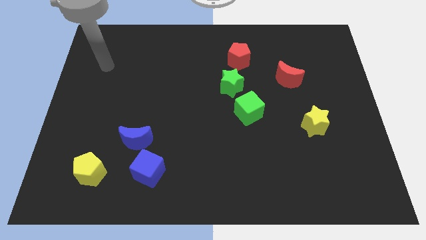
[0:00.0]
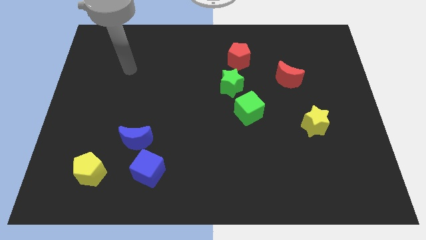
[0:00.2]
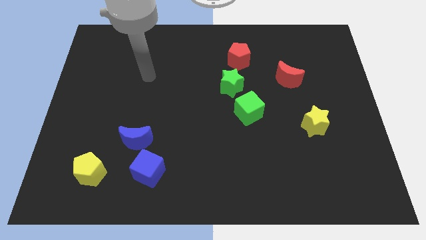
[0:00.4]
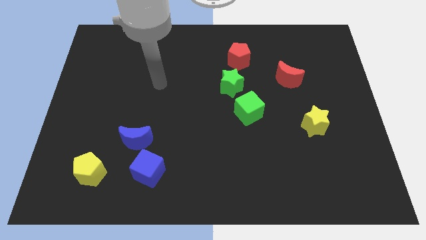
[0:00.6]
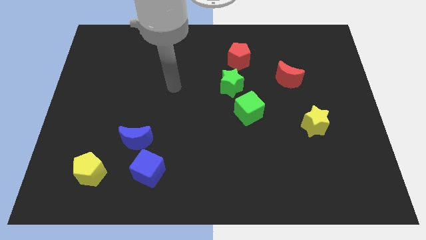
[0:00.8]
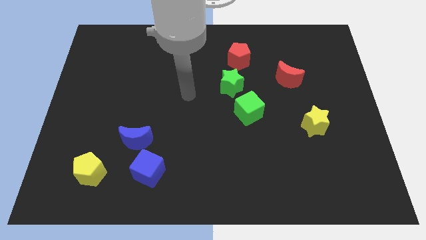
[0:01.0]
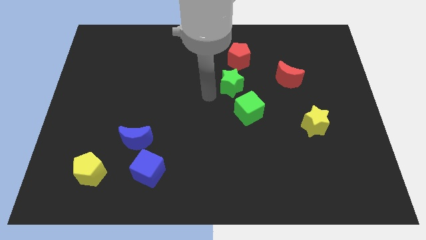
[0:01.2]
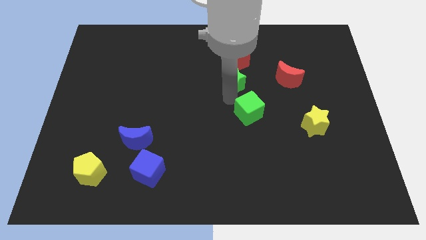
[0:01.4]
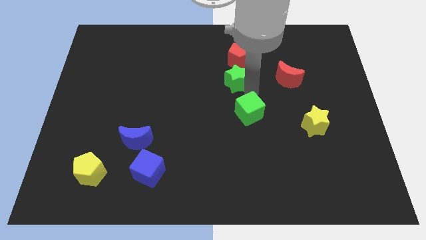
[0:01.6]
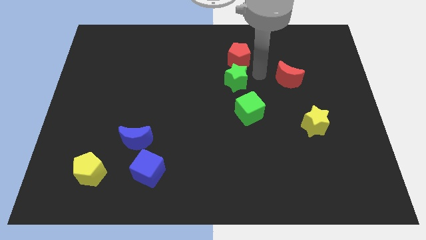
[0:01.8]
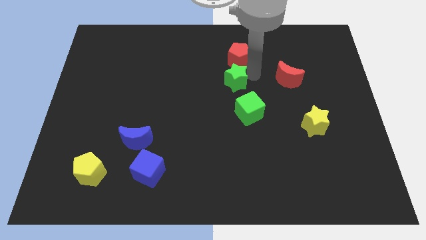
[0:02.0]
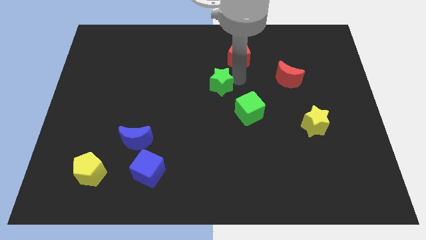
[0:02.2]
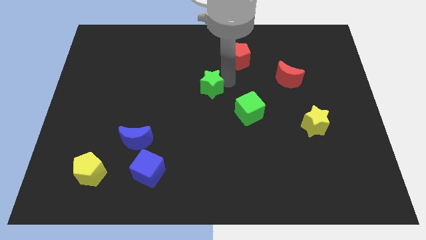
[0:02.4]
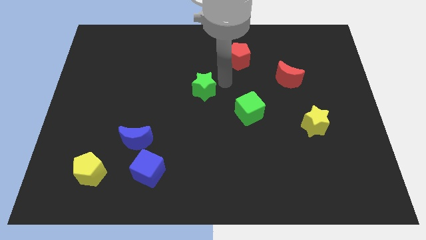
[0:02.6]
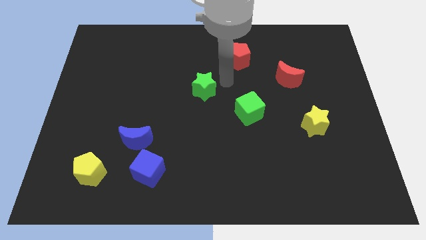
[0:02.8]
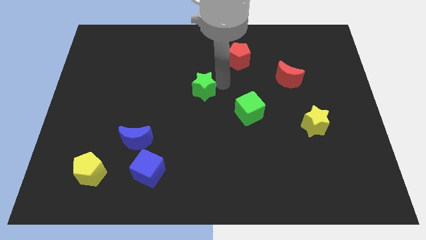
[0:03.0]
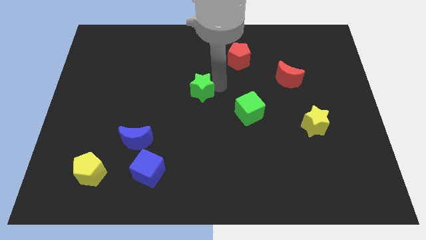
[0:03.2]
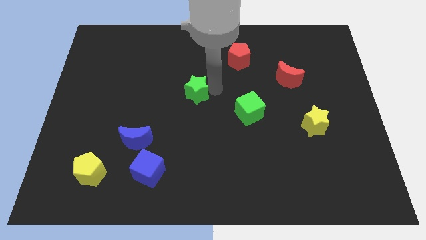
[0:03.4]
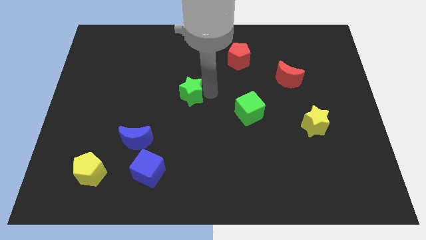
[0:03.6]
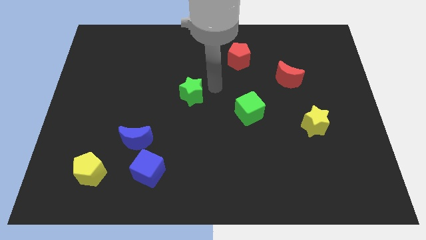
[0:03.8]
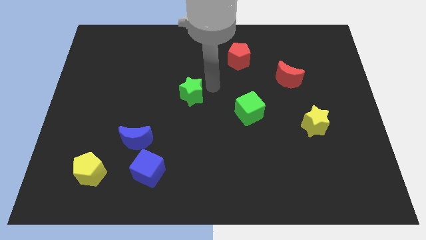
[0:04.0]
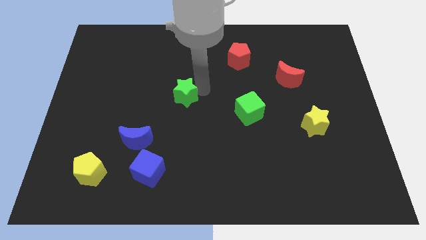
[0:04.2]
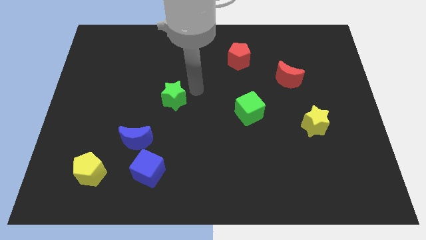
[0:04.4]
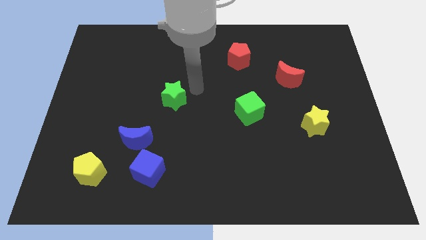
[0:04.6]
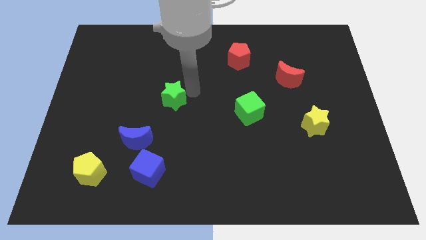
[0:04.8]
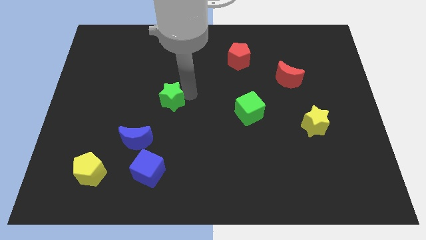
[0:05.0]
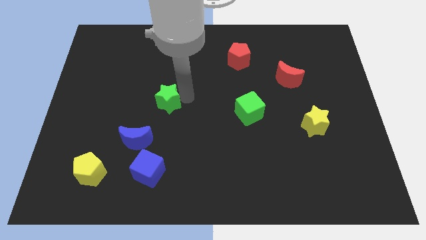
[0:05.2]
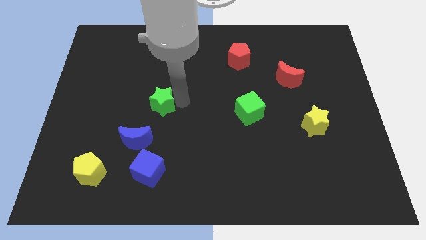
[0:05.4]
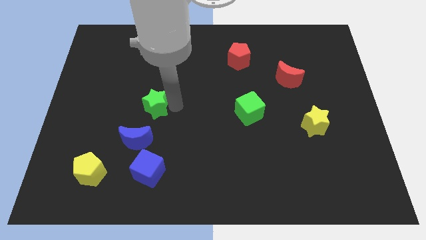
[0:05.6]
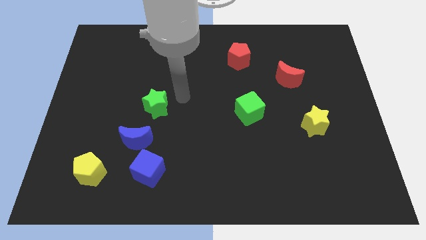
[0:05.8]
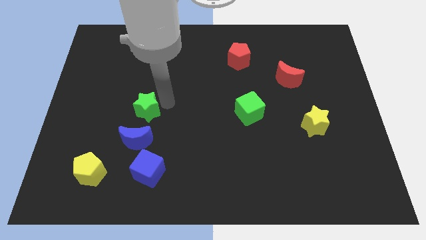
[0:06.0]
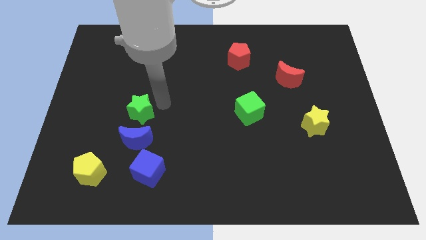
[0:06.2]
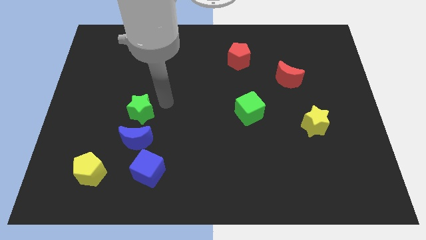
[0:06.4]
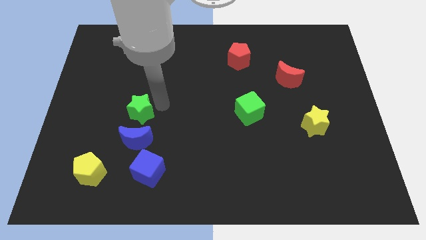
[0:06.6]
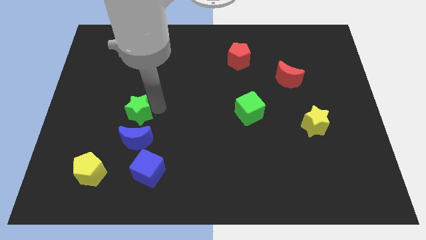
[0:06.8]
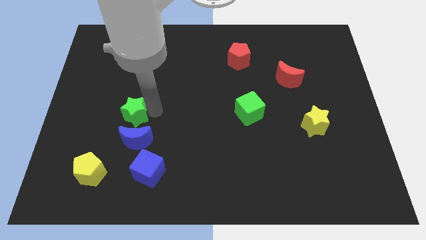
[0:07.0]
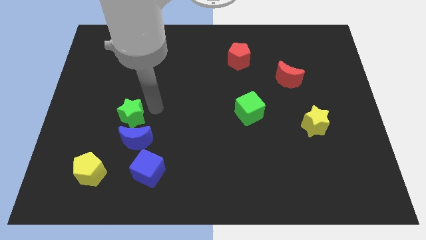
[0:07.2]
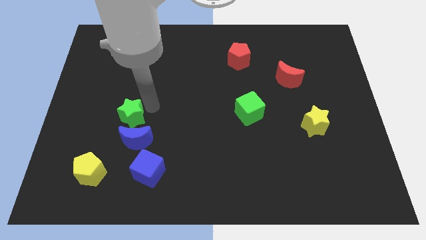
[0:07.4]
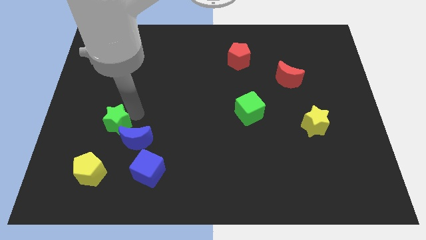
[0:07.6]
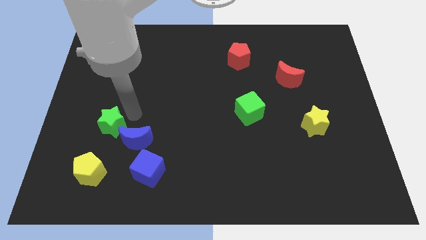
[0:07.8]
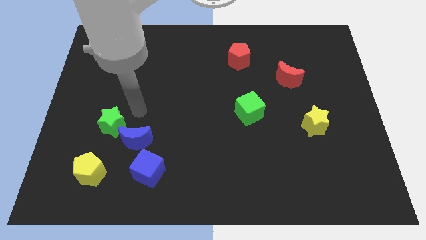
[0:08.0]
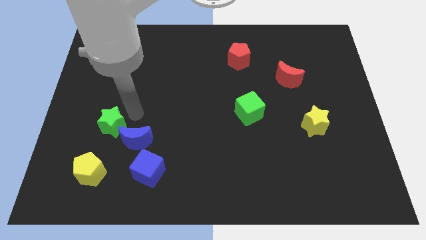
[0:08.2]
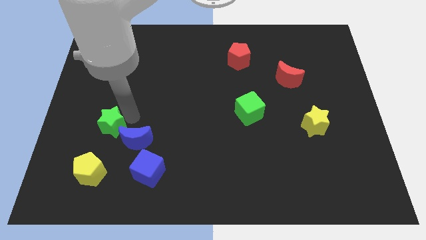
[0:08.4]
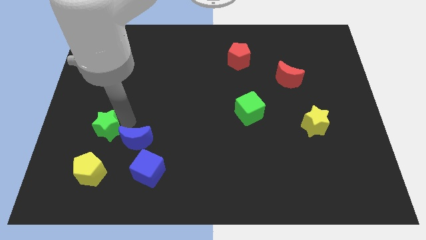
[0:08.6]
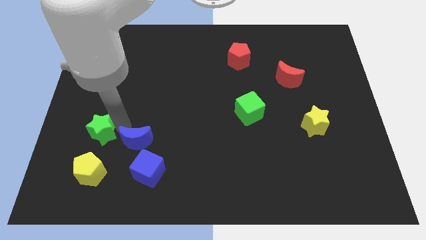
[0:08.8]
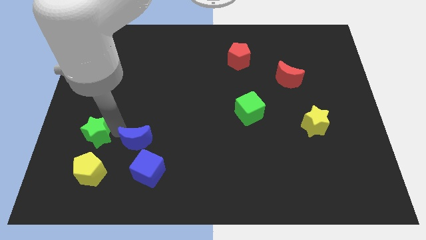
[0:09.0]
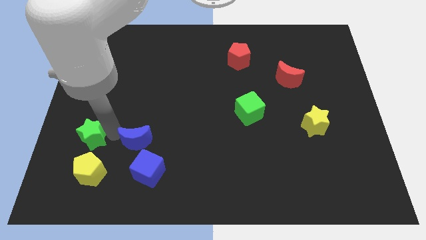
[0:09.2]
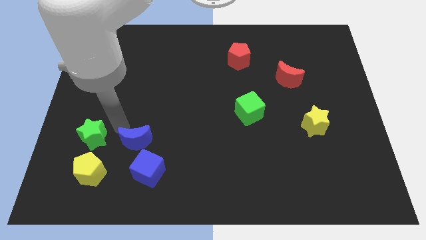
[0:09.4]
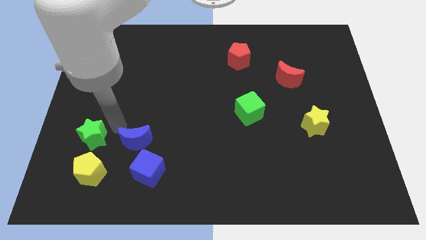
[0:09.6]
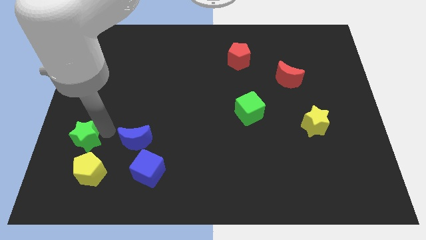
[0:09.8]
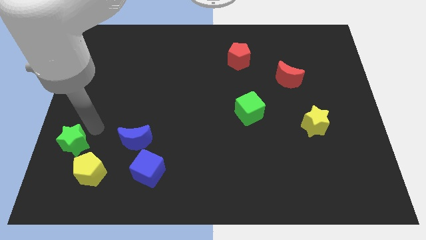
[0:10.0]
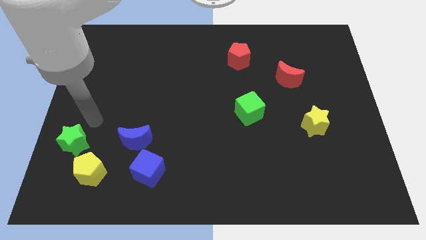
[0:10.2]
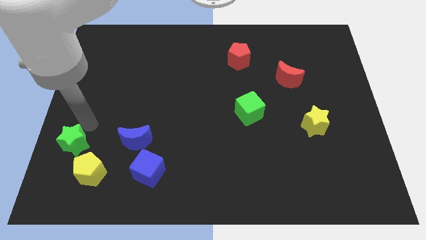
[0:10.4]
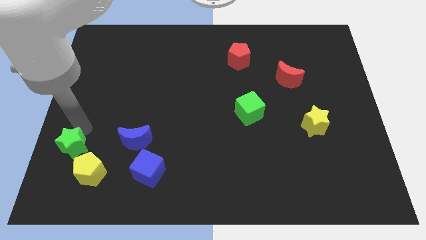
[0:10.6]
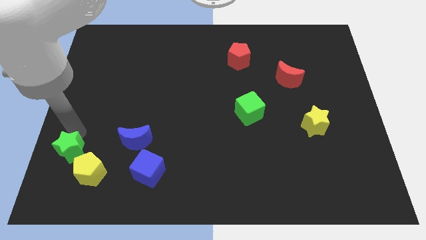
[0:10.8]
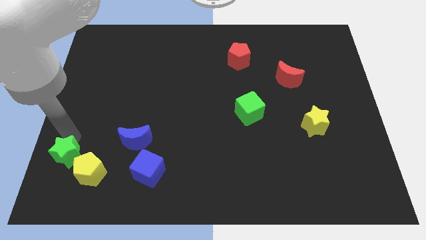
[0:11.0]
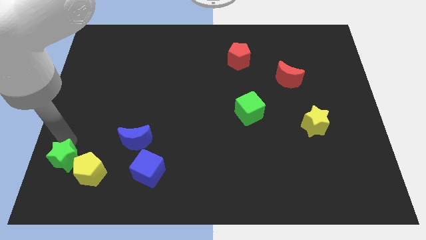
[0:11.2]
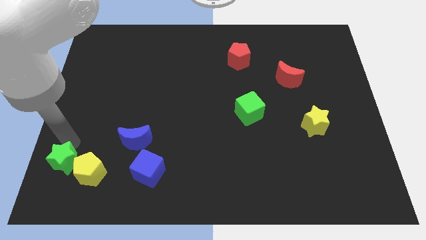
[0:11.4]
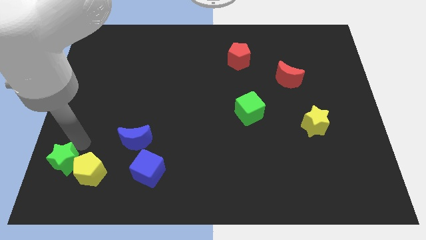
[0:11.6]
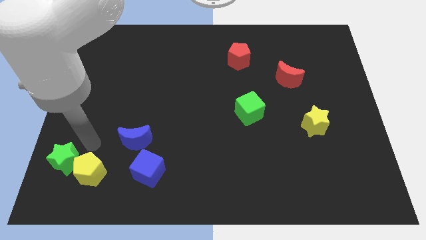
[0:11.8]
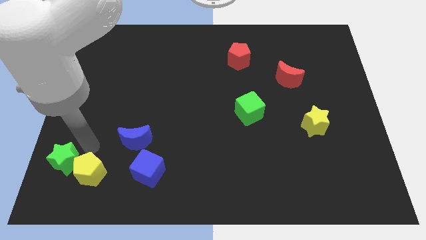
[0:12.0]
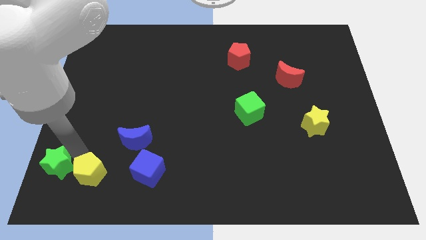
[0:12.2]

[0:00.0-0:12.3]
push the green star to the bottom left of the board
